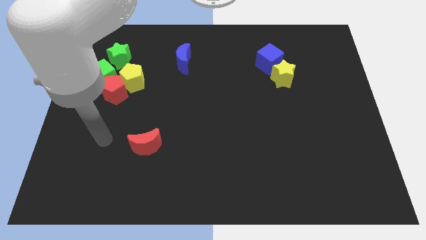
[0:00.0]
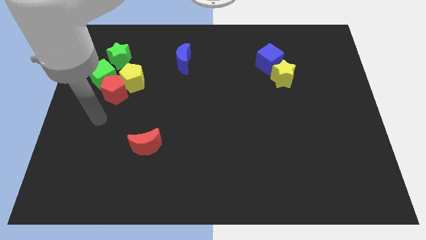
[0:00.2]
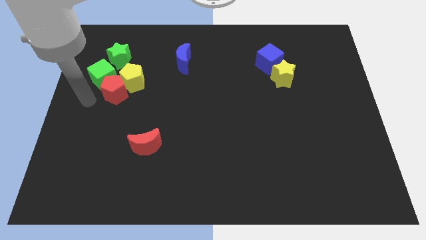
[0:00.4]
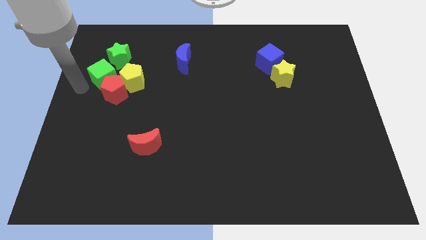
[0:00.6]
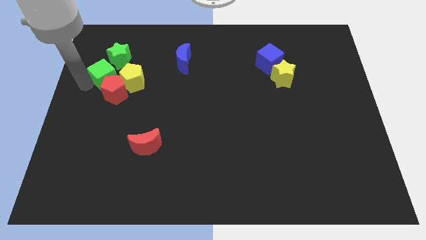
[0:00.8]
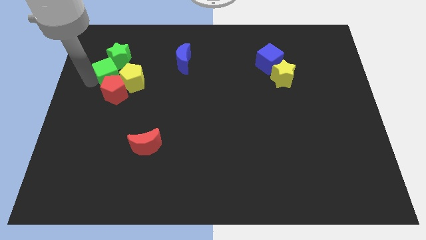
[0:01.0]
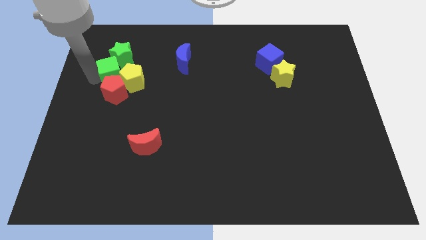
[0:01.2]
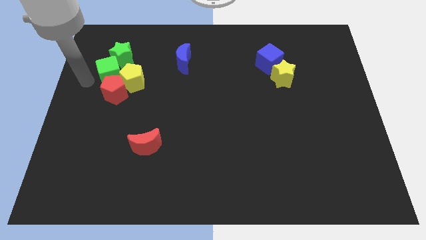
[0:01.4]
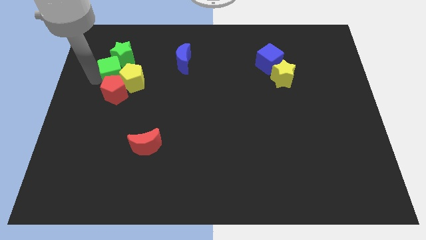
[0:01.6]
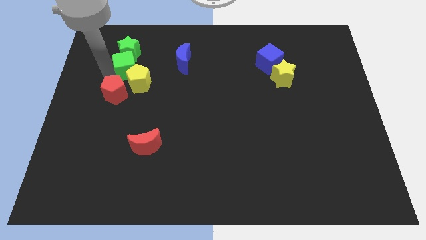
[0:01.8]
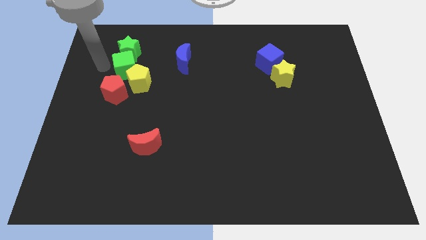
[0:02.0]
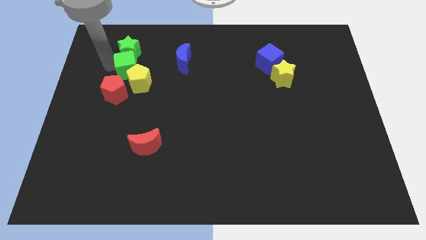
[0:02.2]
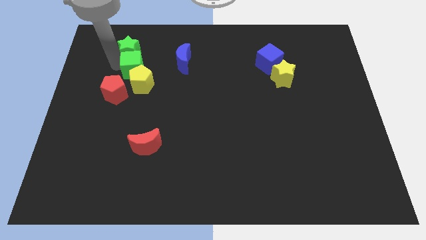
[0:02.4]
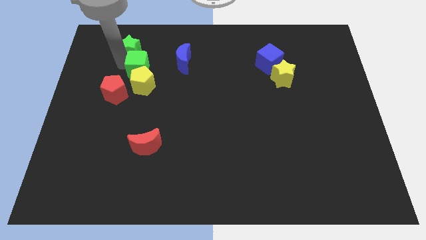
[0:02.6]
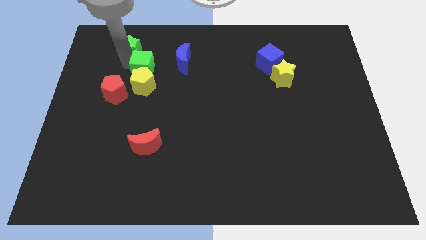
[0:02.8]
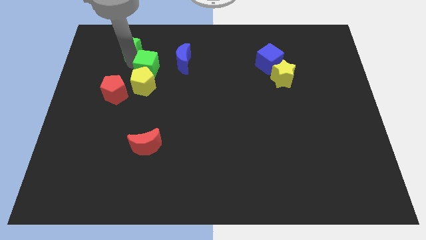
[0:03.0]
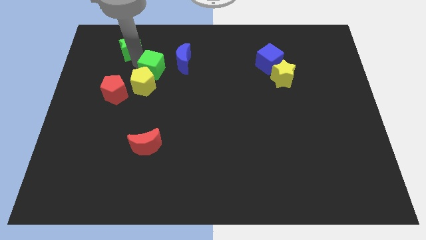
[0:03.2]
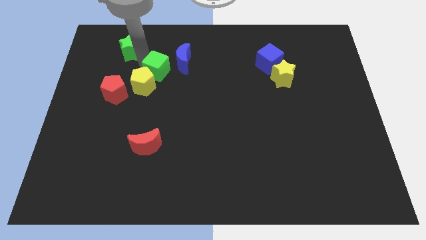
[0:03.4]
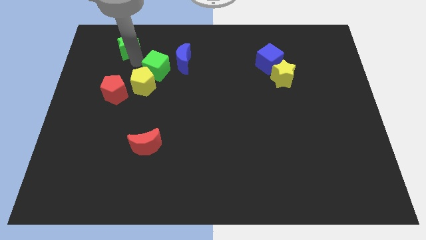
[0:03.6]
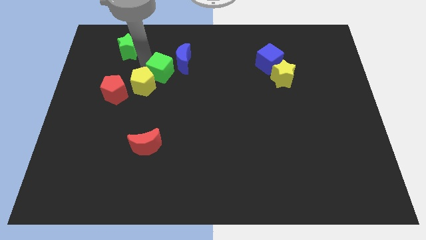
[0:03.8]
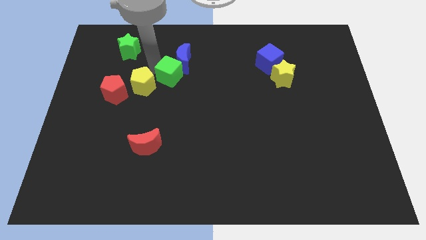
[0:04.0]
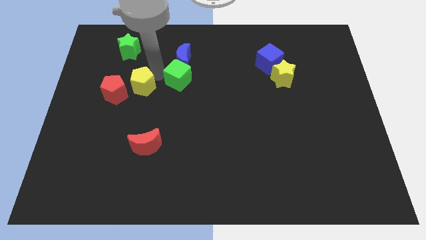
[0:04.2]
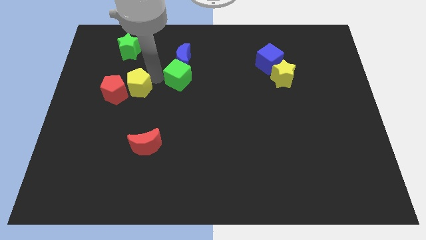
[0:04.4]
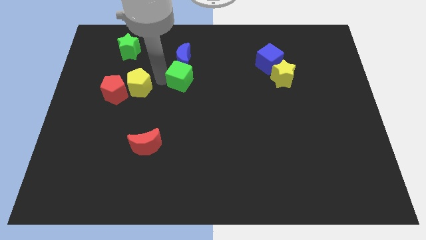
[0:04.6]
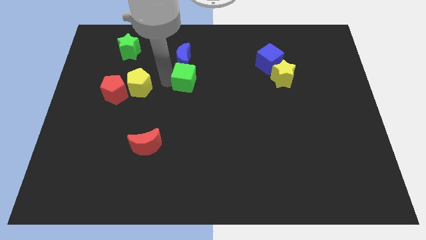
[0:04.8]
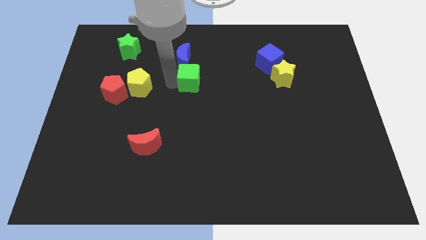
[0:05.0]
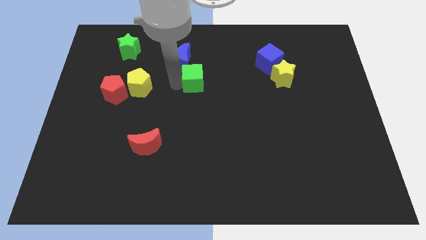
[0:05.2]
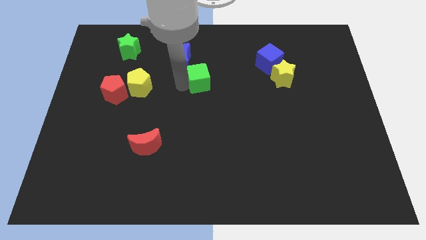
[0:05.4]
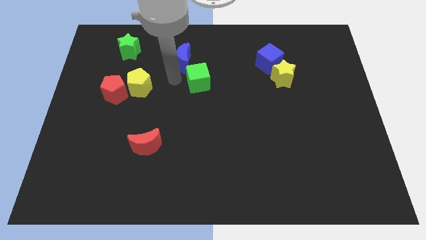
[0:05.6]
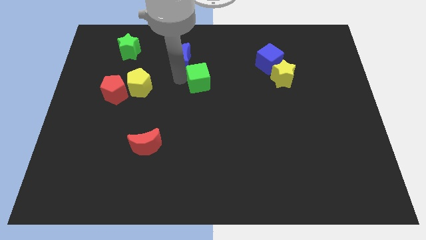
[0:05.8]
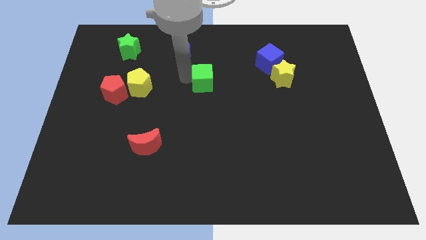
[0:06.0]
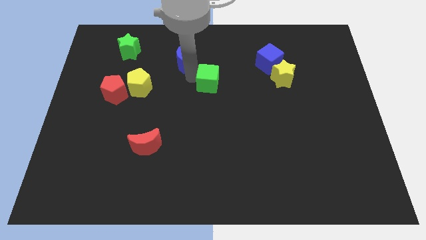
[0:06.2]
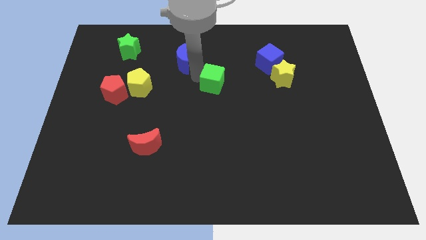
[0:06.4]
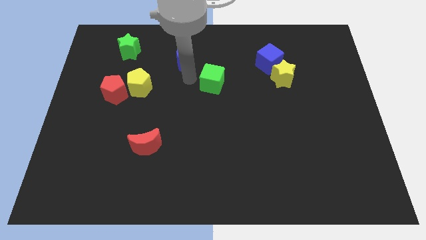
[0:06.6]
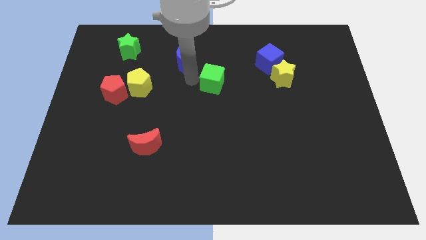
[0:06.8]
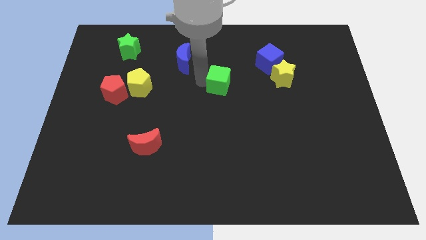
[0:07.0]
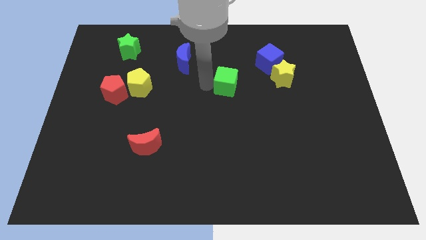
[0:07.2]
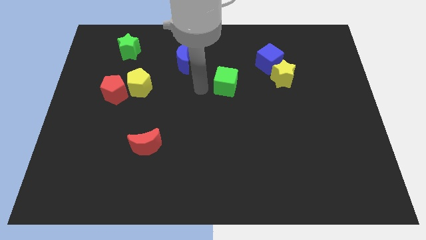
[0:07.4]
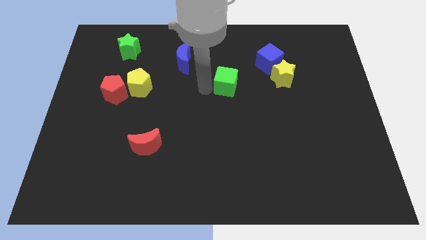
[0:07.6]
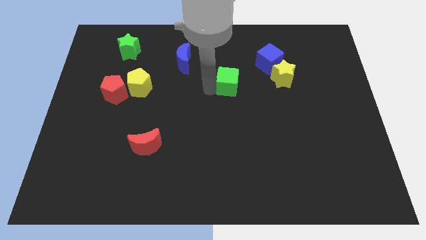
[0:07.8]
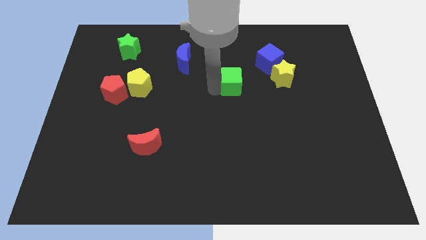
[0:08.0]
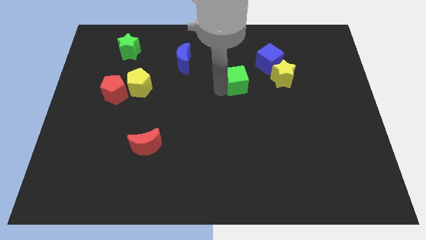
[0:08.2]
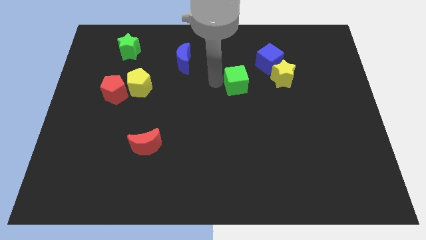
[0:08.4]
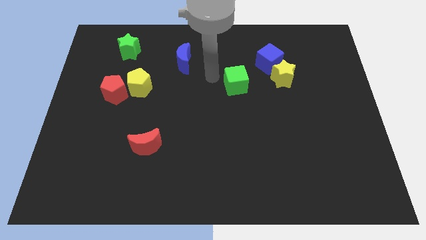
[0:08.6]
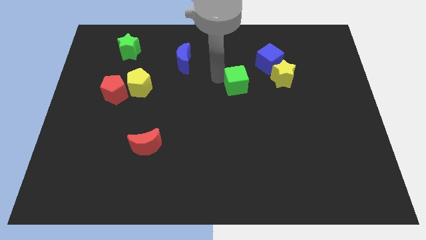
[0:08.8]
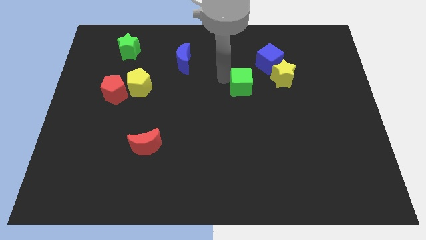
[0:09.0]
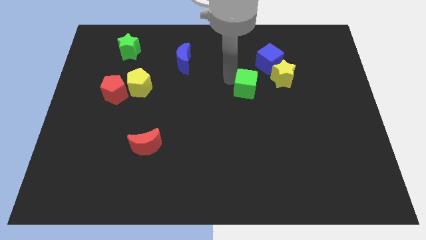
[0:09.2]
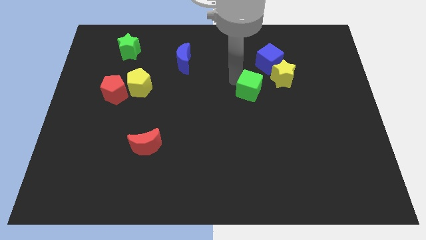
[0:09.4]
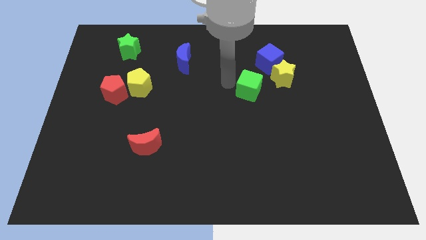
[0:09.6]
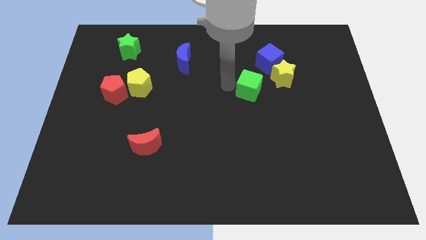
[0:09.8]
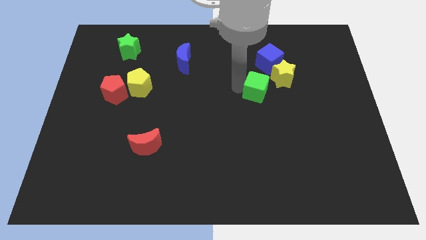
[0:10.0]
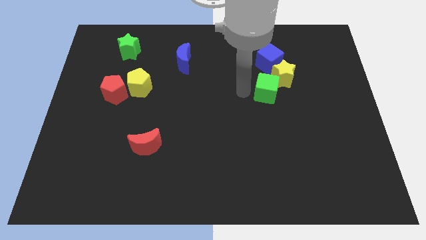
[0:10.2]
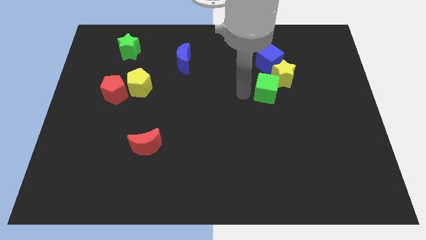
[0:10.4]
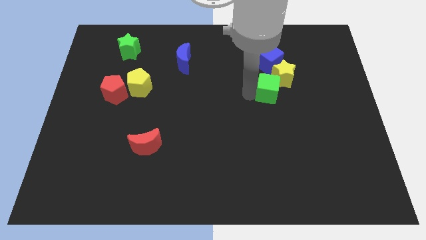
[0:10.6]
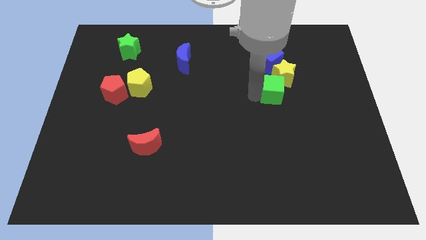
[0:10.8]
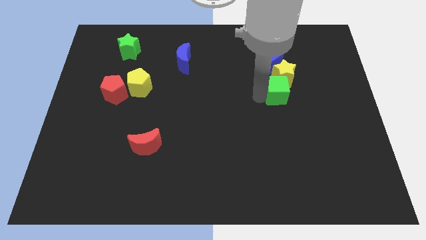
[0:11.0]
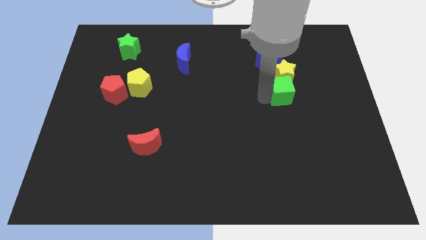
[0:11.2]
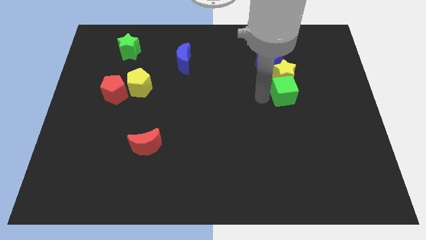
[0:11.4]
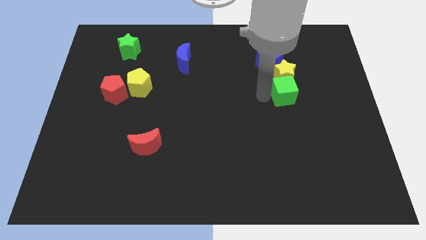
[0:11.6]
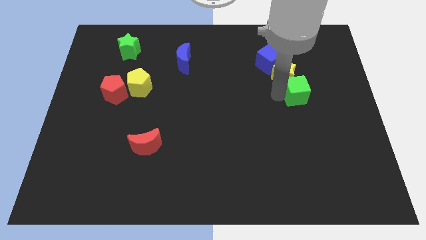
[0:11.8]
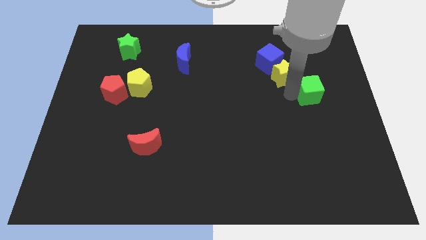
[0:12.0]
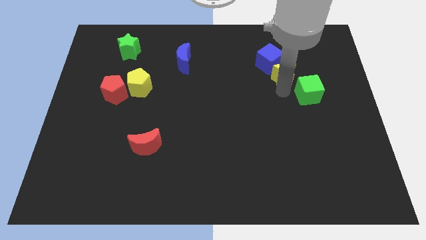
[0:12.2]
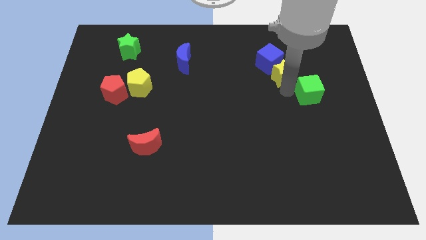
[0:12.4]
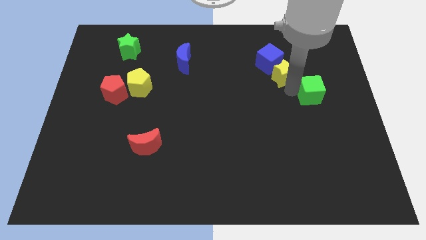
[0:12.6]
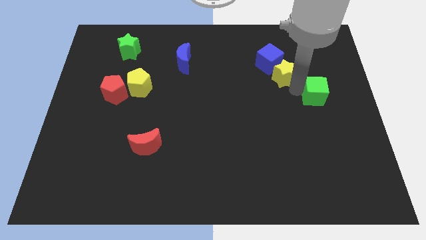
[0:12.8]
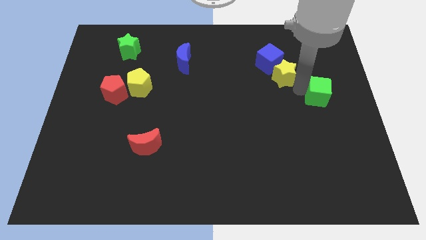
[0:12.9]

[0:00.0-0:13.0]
put the green cube to the right side of the board

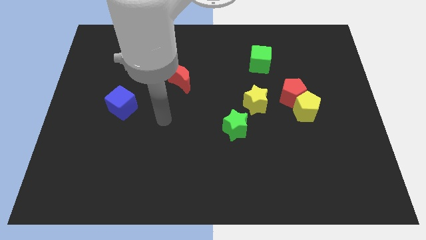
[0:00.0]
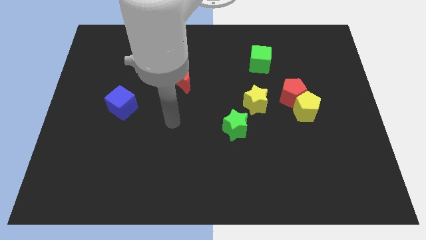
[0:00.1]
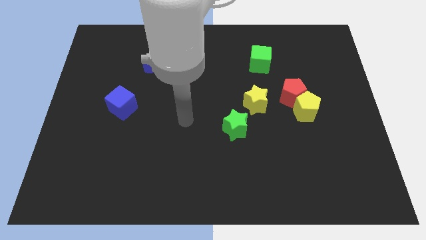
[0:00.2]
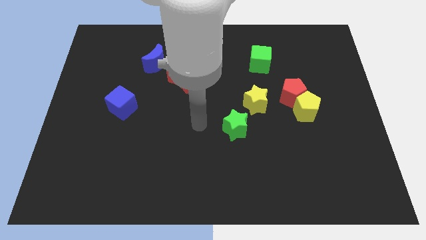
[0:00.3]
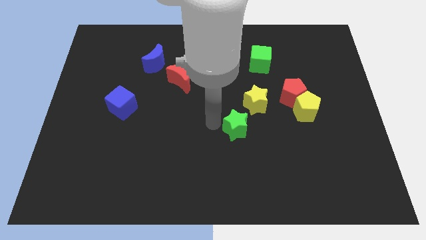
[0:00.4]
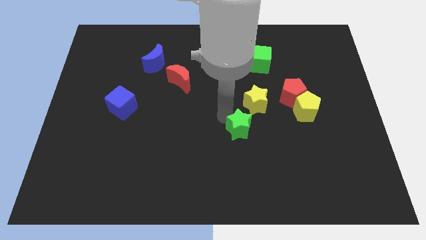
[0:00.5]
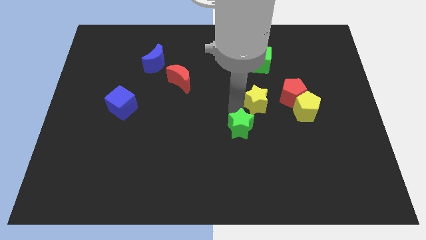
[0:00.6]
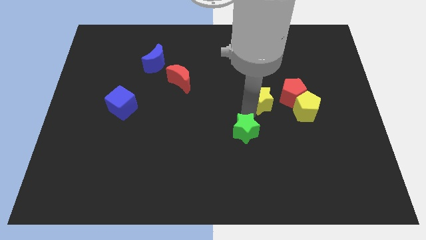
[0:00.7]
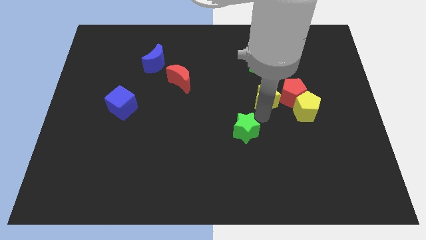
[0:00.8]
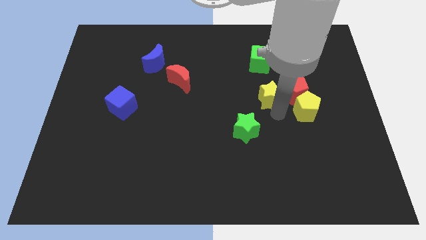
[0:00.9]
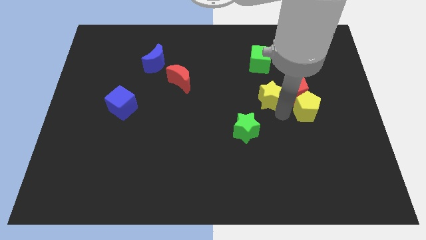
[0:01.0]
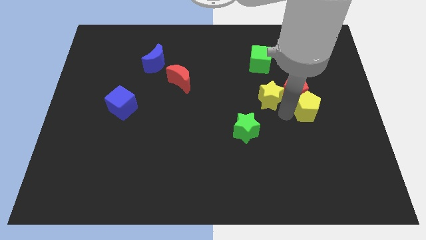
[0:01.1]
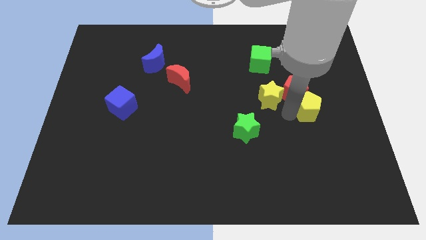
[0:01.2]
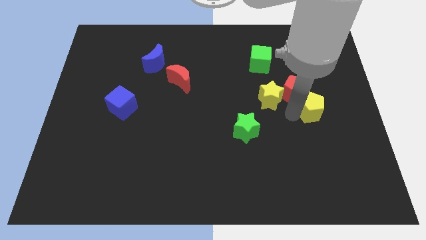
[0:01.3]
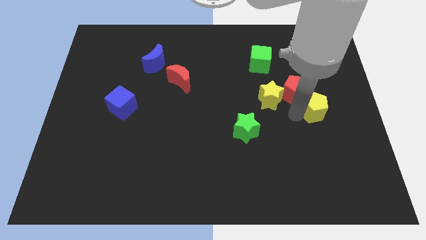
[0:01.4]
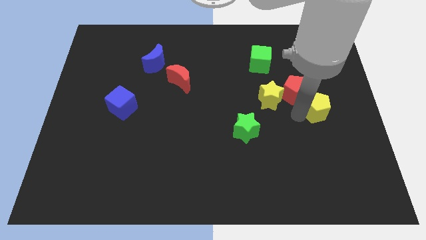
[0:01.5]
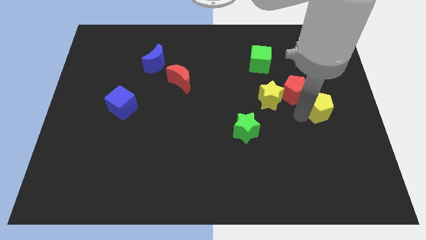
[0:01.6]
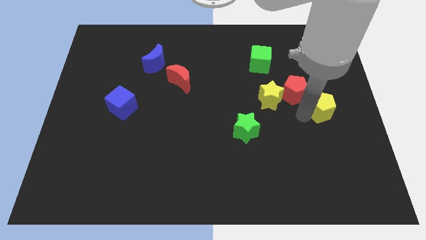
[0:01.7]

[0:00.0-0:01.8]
move the yellow pentagon to the center right
